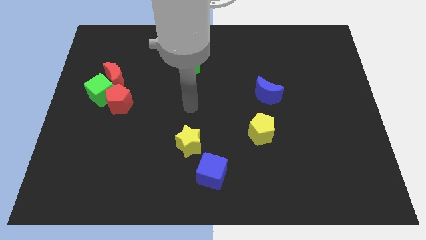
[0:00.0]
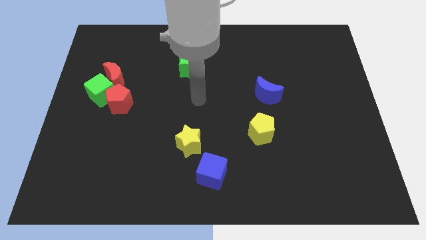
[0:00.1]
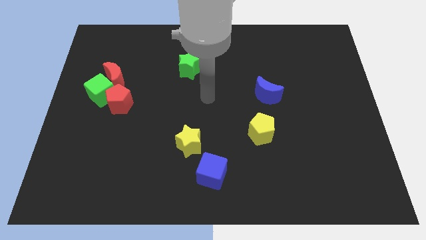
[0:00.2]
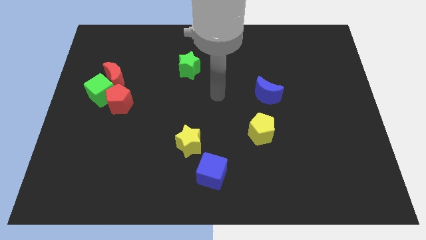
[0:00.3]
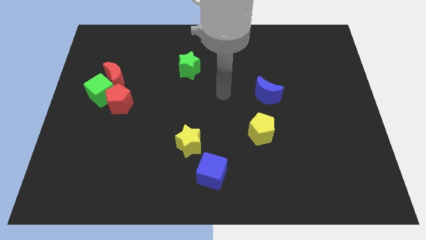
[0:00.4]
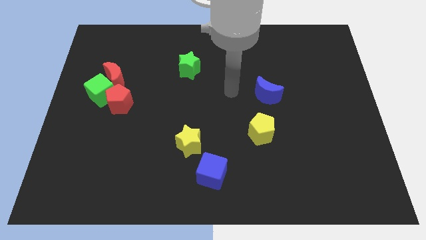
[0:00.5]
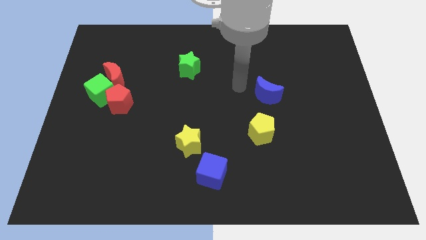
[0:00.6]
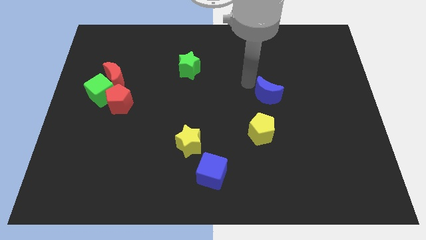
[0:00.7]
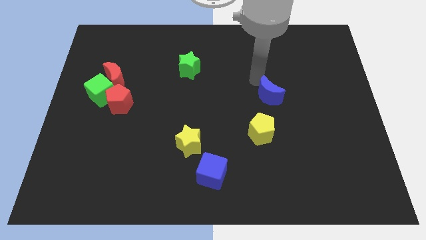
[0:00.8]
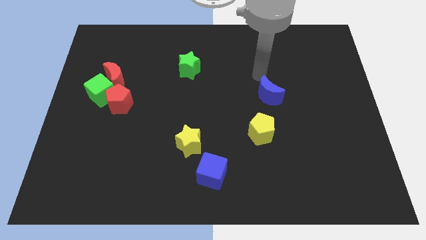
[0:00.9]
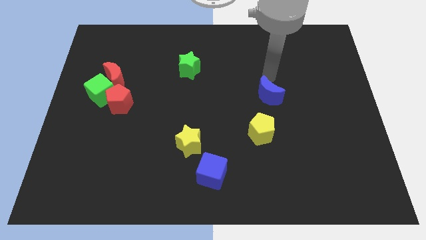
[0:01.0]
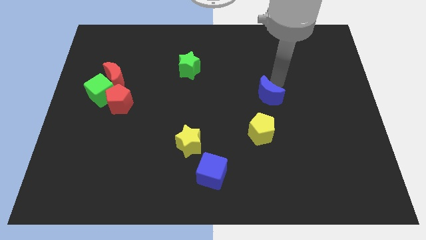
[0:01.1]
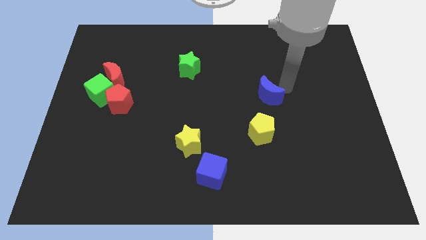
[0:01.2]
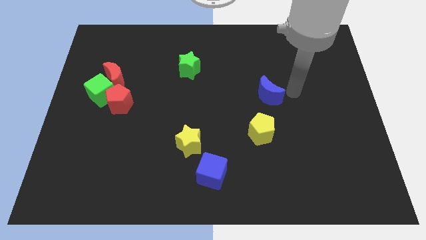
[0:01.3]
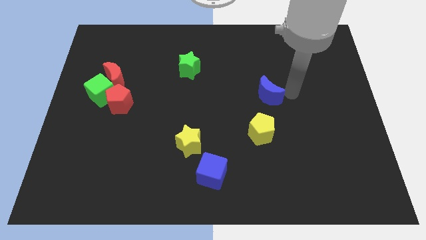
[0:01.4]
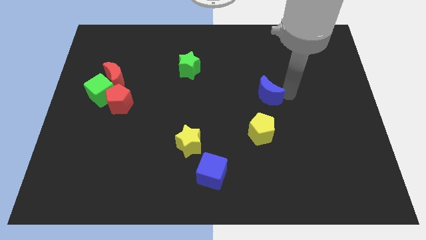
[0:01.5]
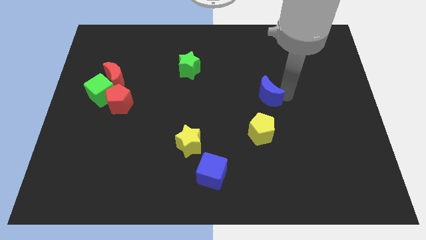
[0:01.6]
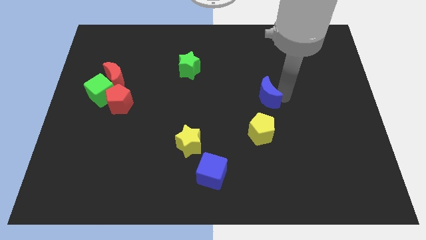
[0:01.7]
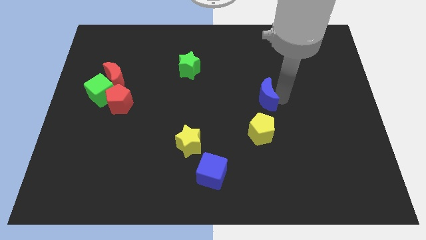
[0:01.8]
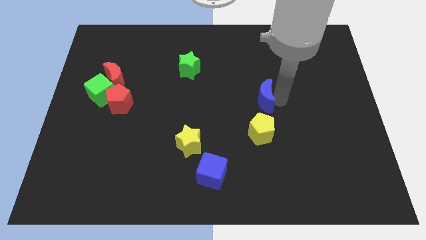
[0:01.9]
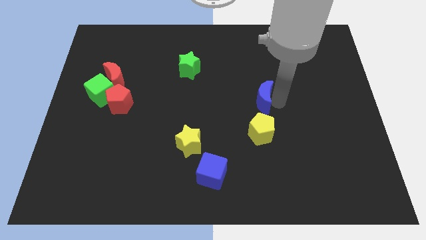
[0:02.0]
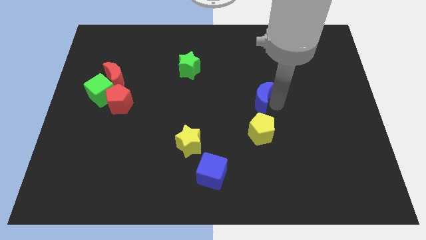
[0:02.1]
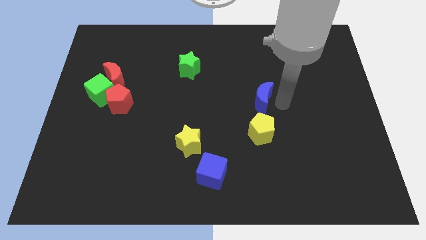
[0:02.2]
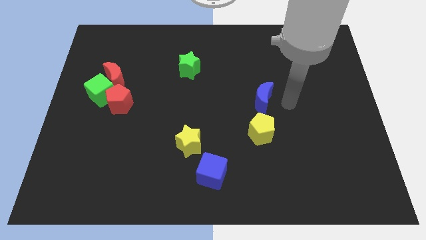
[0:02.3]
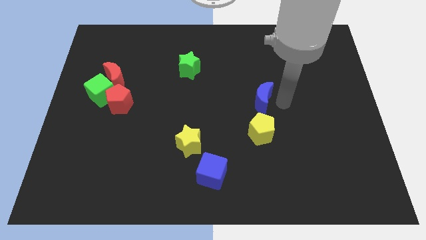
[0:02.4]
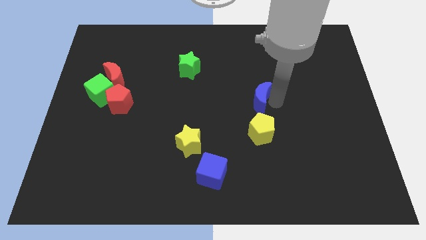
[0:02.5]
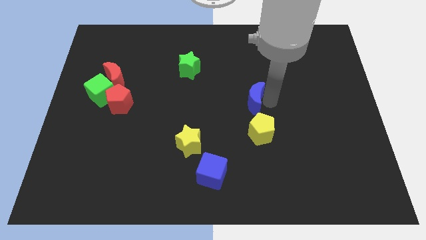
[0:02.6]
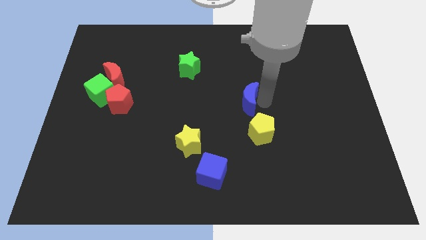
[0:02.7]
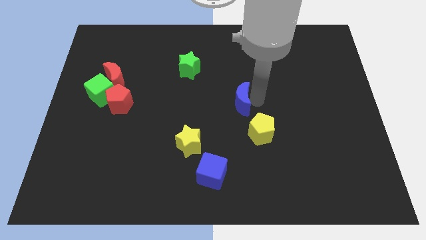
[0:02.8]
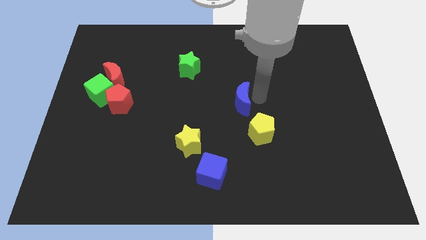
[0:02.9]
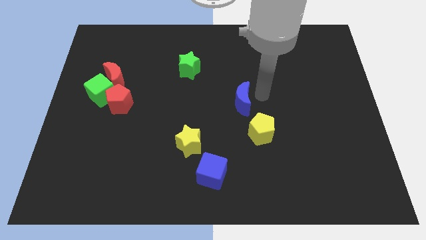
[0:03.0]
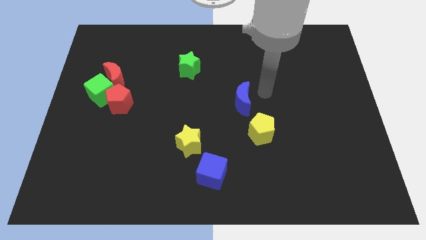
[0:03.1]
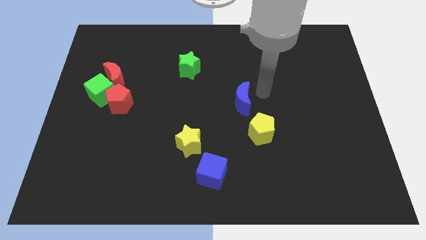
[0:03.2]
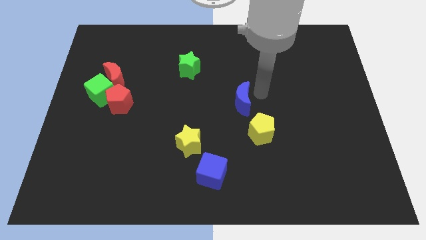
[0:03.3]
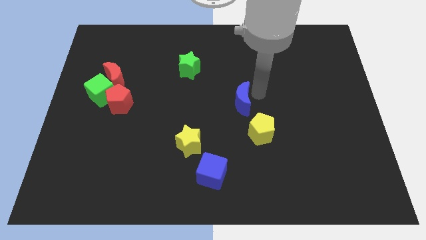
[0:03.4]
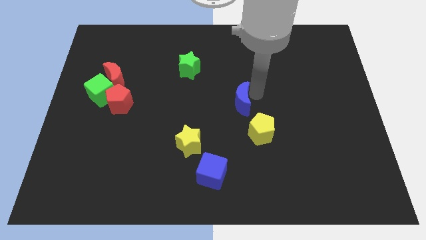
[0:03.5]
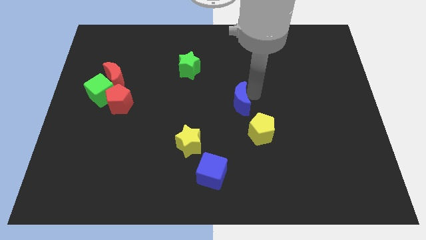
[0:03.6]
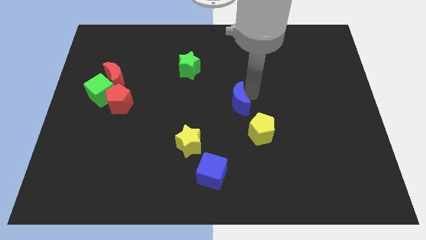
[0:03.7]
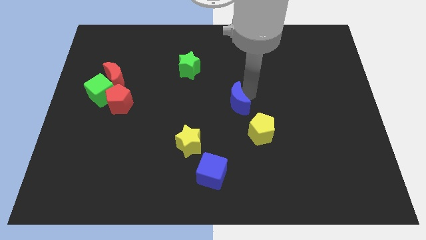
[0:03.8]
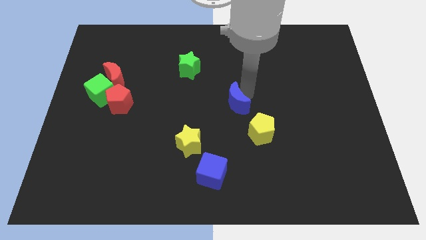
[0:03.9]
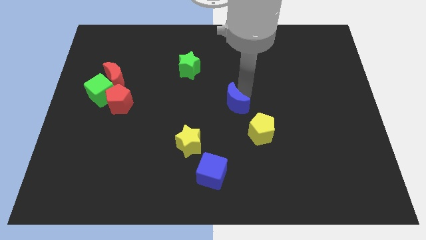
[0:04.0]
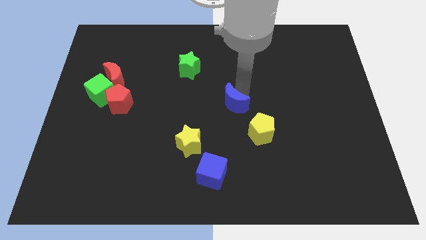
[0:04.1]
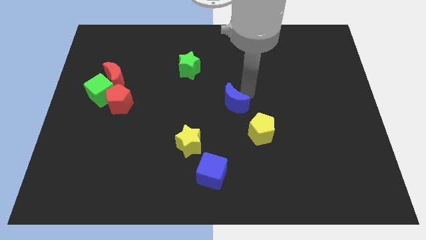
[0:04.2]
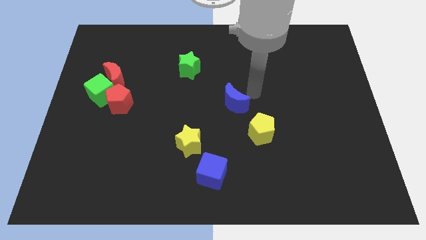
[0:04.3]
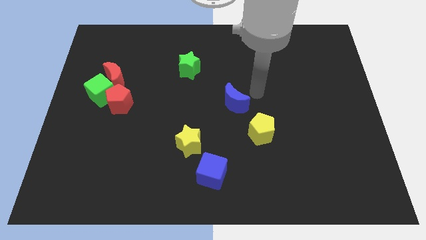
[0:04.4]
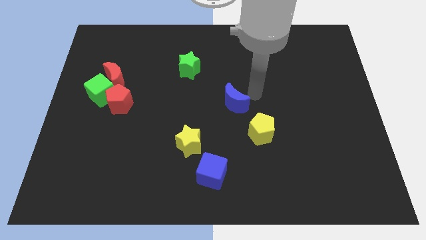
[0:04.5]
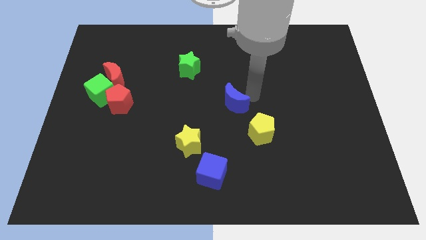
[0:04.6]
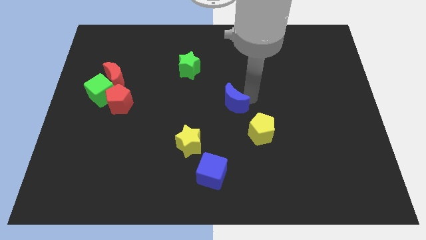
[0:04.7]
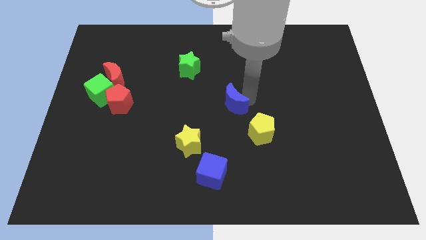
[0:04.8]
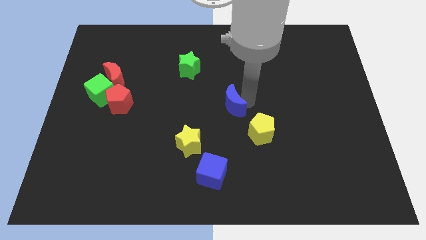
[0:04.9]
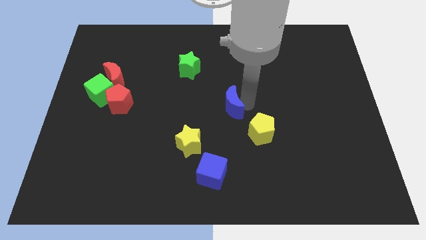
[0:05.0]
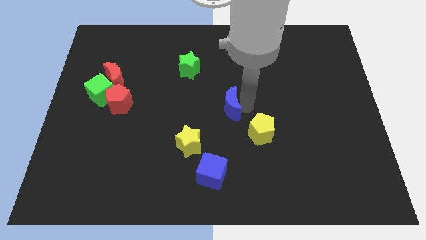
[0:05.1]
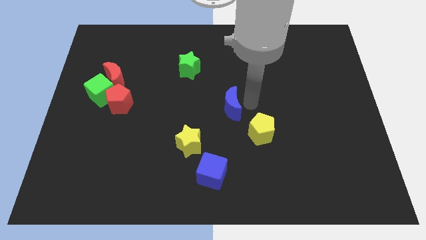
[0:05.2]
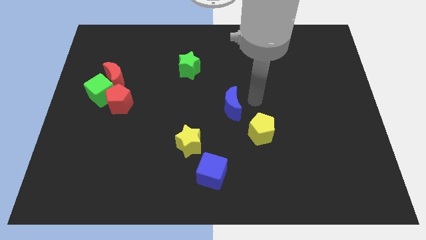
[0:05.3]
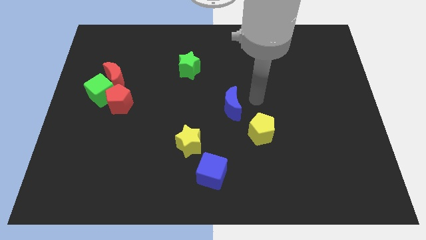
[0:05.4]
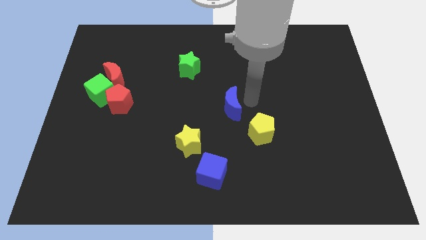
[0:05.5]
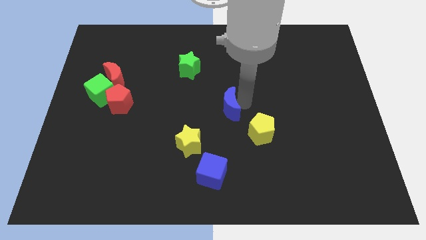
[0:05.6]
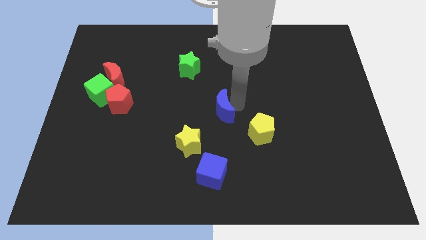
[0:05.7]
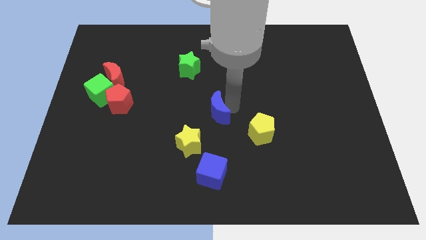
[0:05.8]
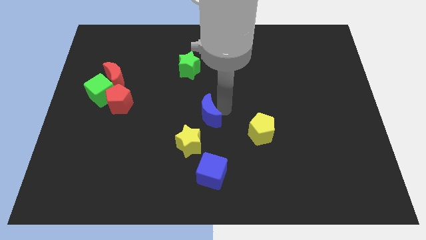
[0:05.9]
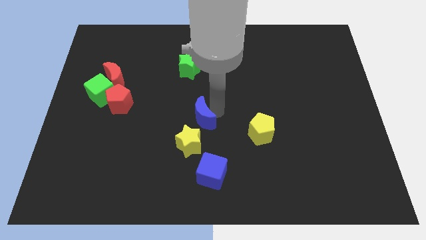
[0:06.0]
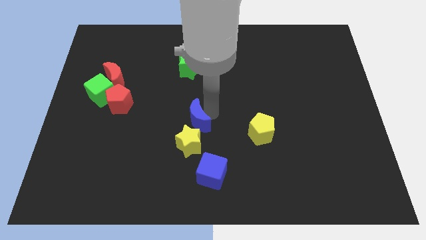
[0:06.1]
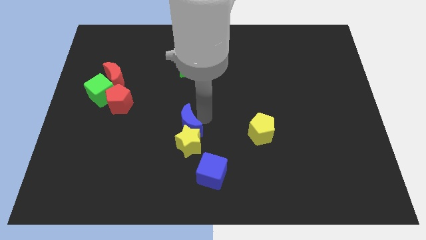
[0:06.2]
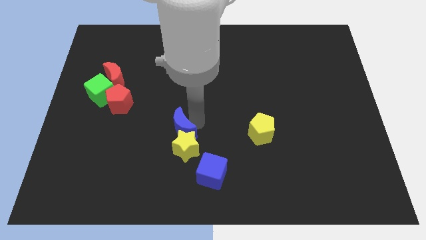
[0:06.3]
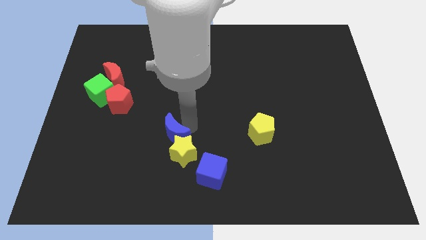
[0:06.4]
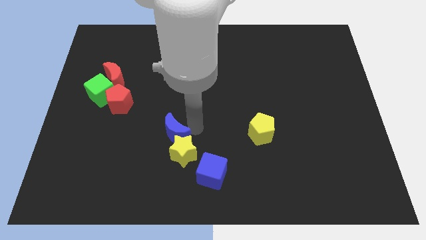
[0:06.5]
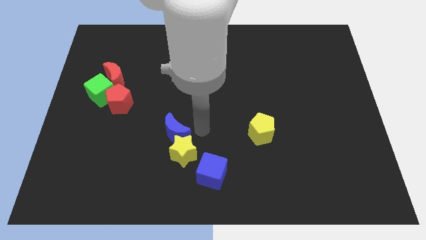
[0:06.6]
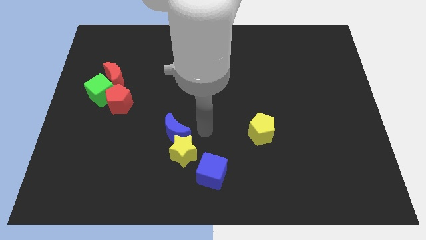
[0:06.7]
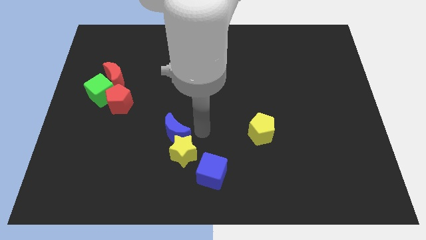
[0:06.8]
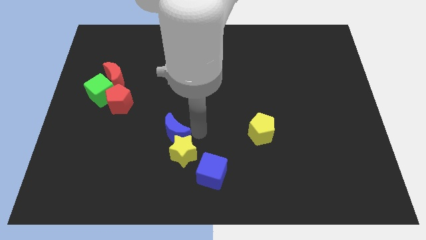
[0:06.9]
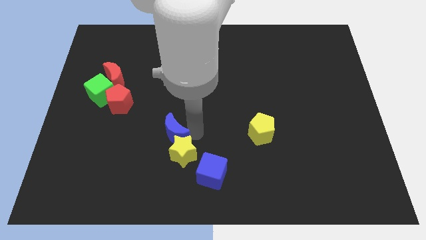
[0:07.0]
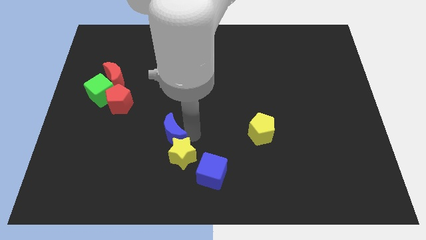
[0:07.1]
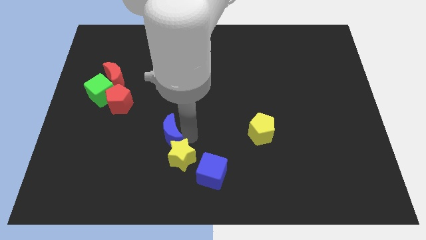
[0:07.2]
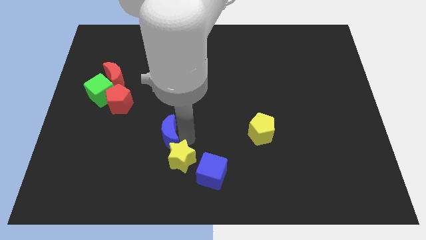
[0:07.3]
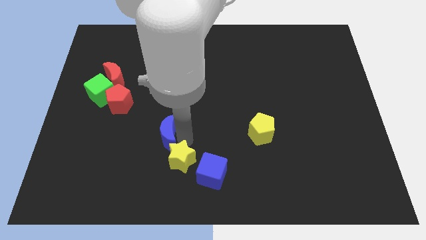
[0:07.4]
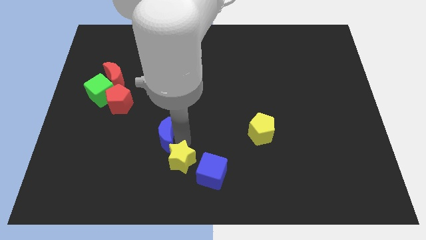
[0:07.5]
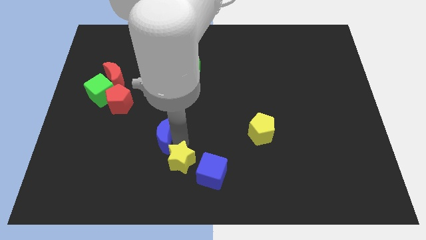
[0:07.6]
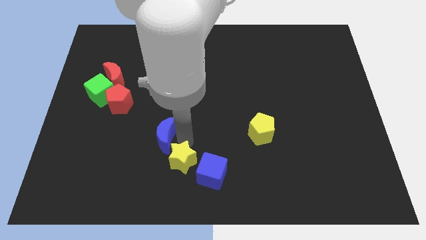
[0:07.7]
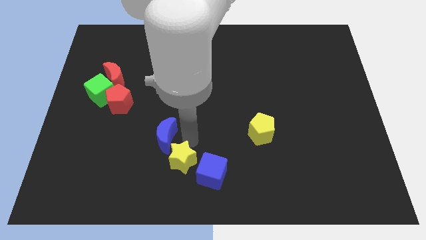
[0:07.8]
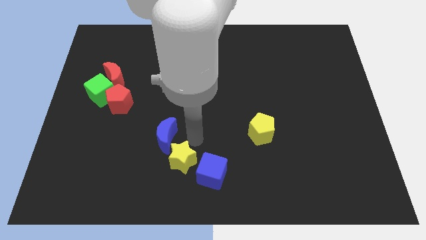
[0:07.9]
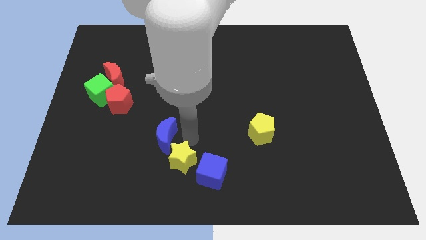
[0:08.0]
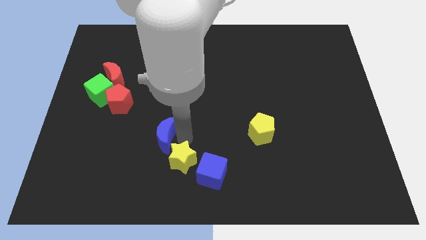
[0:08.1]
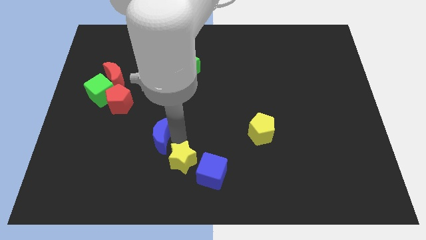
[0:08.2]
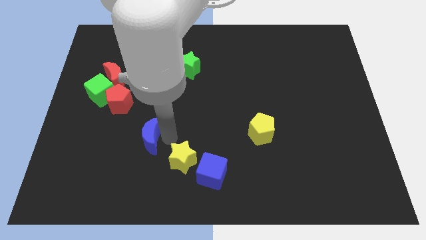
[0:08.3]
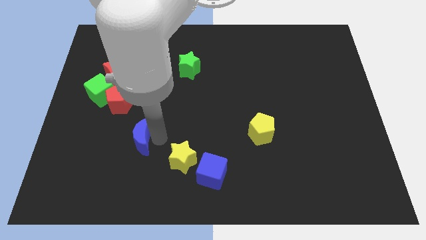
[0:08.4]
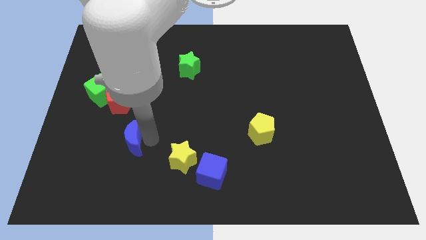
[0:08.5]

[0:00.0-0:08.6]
push the blue moon below the red pentagon
